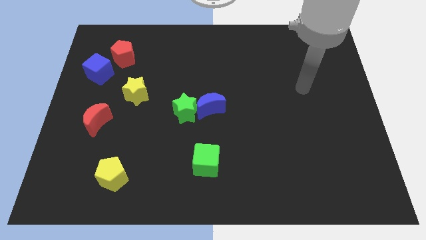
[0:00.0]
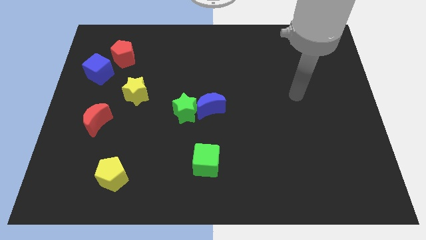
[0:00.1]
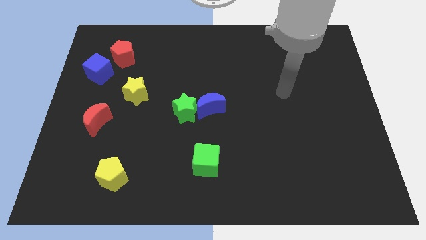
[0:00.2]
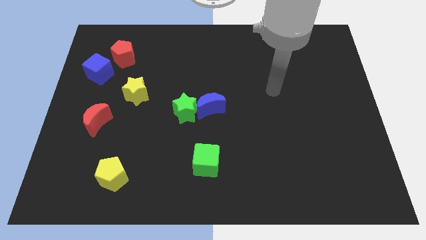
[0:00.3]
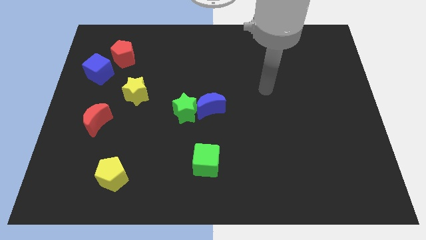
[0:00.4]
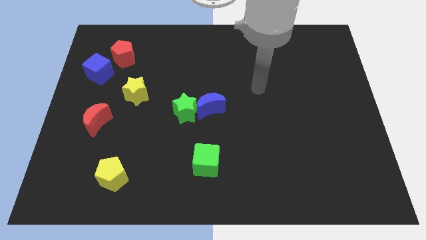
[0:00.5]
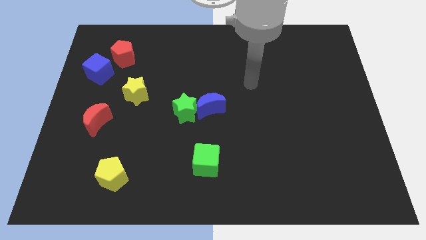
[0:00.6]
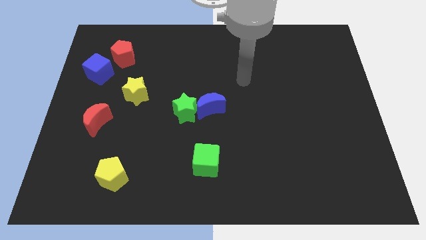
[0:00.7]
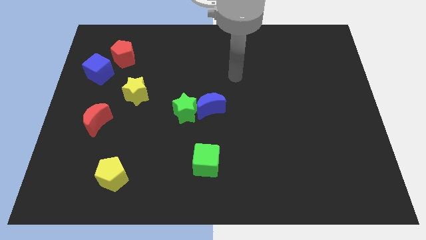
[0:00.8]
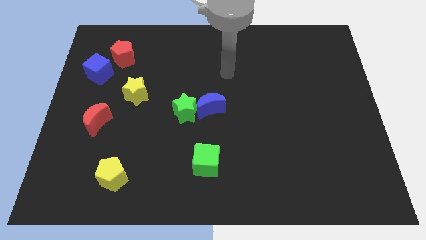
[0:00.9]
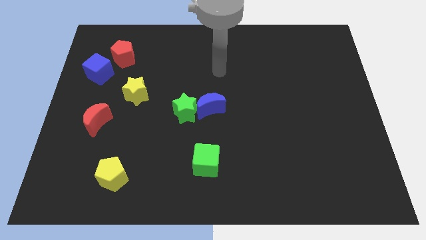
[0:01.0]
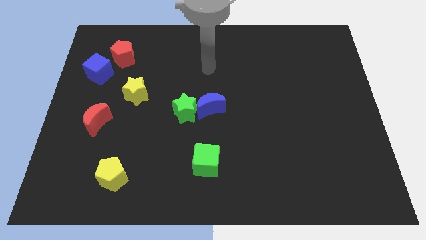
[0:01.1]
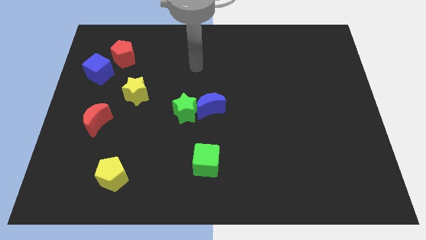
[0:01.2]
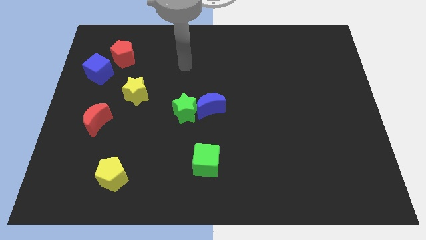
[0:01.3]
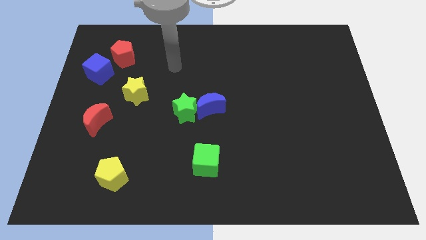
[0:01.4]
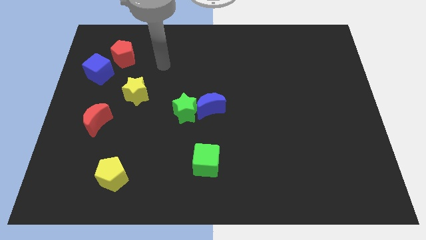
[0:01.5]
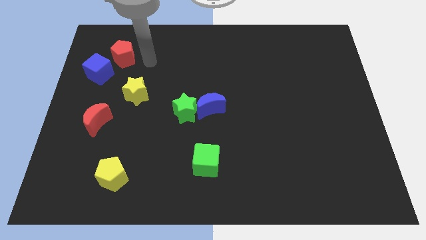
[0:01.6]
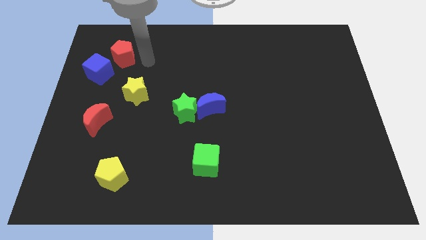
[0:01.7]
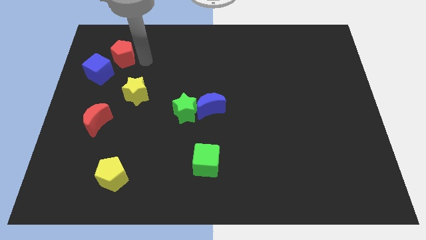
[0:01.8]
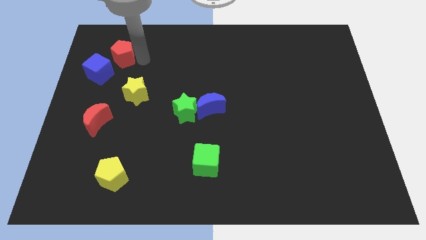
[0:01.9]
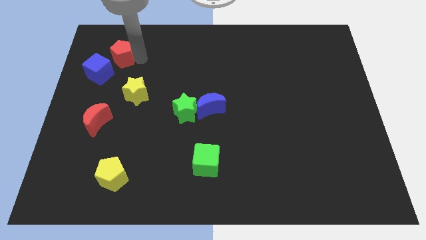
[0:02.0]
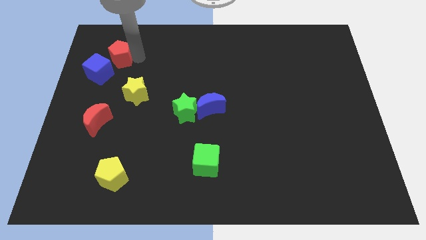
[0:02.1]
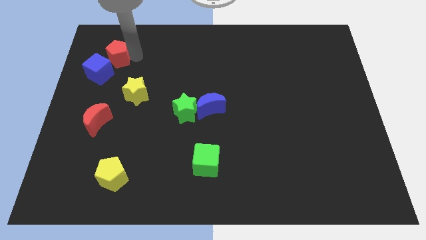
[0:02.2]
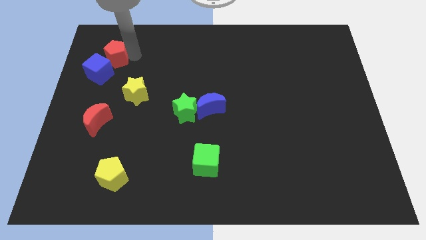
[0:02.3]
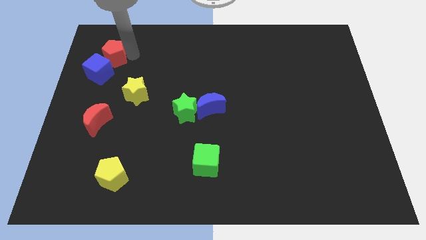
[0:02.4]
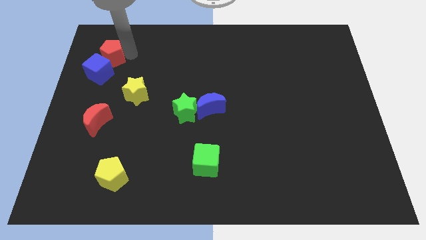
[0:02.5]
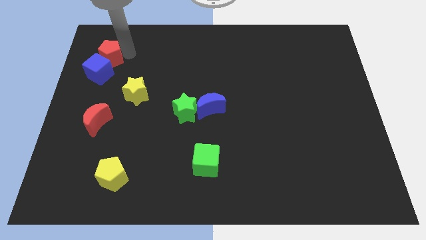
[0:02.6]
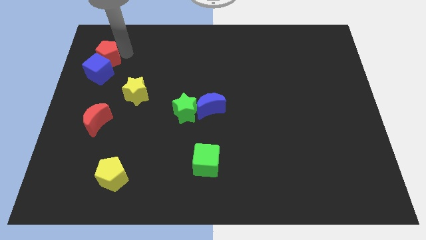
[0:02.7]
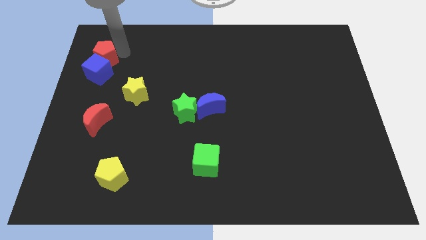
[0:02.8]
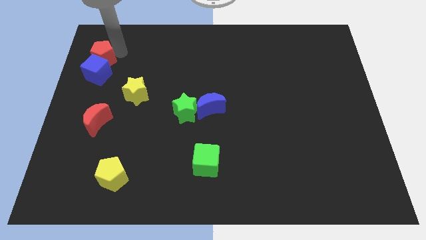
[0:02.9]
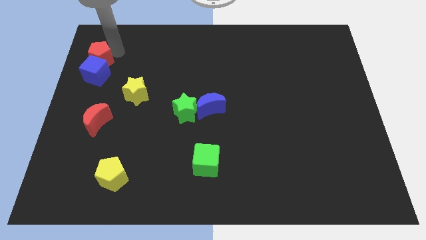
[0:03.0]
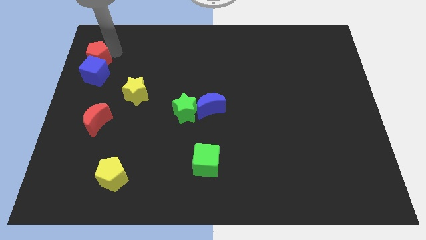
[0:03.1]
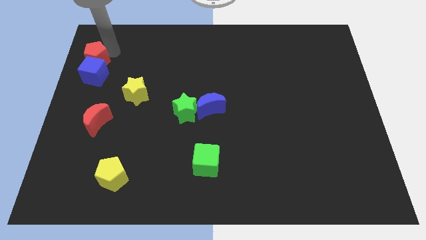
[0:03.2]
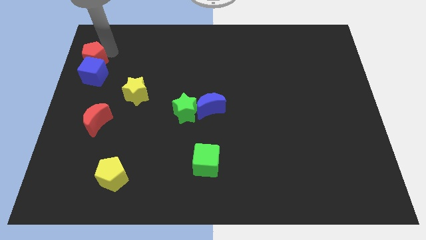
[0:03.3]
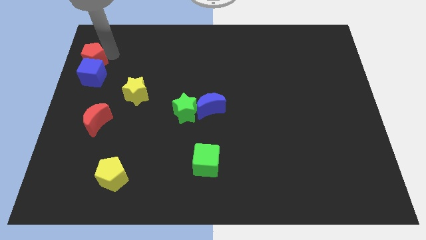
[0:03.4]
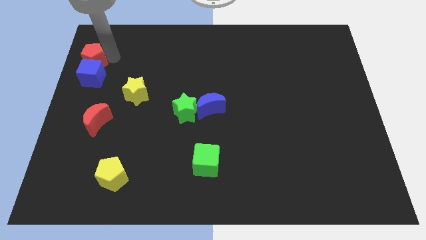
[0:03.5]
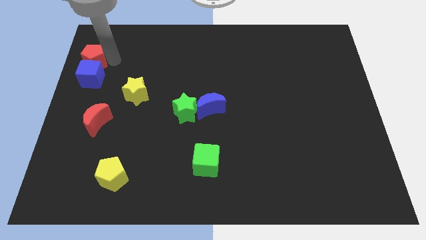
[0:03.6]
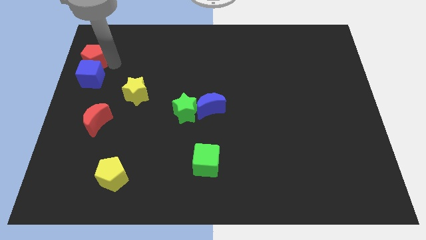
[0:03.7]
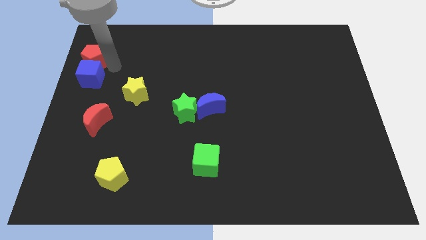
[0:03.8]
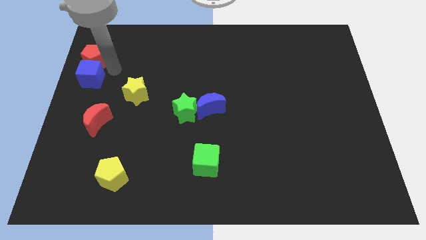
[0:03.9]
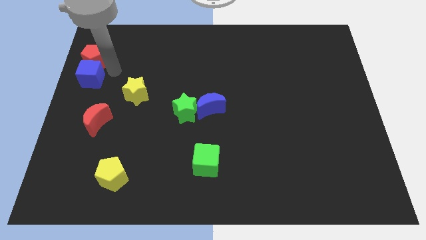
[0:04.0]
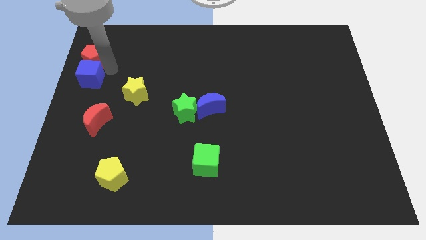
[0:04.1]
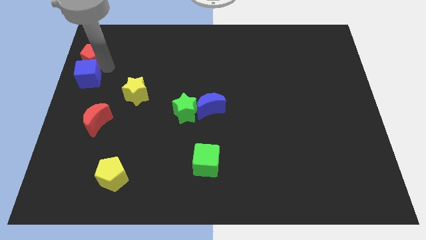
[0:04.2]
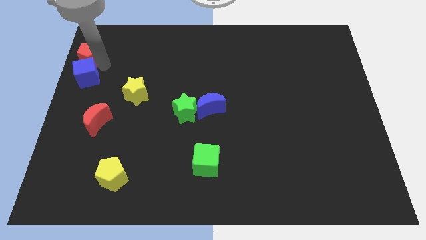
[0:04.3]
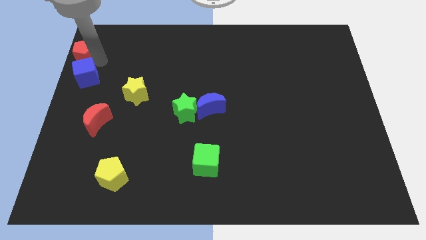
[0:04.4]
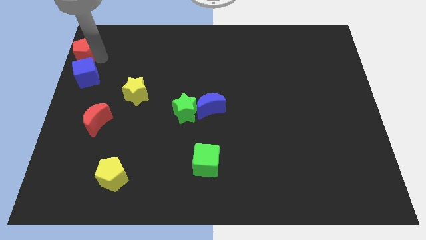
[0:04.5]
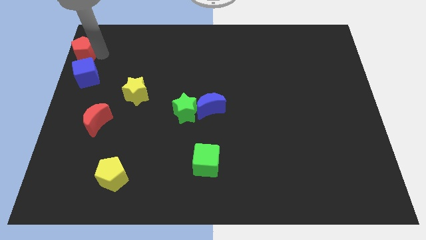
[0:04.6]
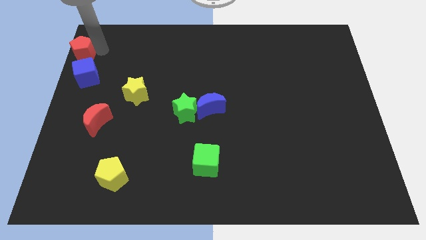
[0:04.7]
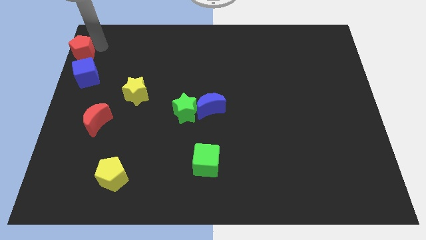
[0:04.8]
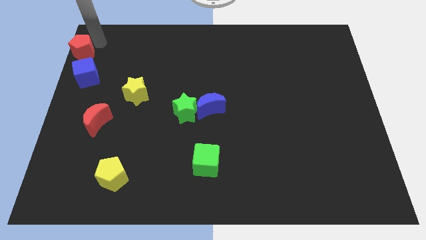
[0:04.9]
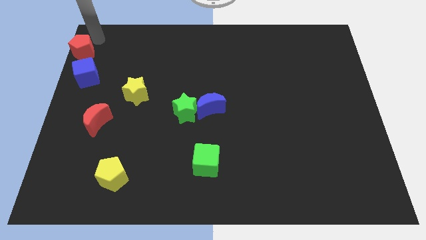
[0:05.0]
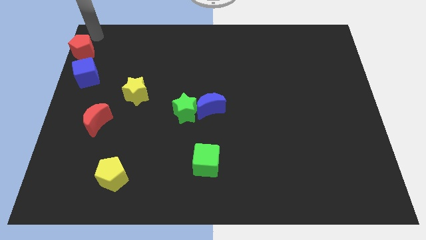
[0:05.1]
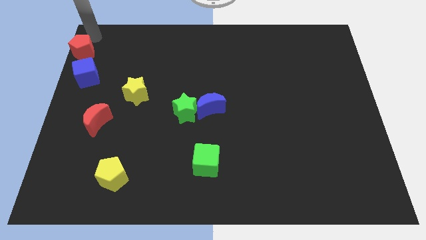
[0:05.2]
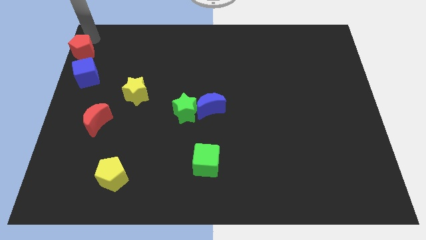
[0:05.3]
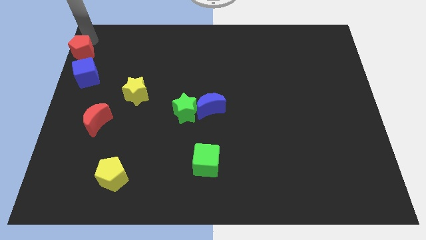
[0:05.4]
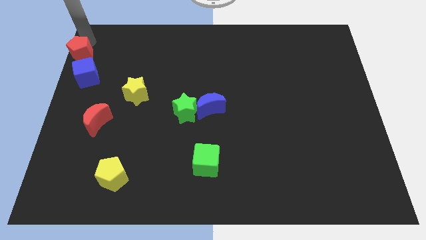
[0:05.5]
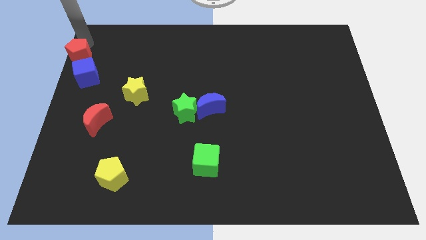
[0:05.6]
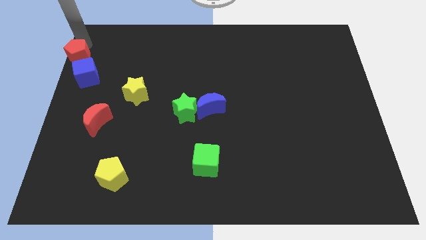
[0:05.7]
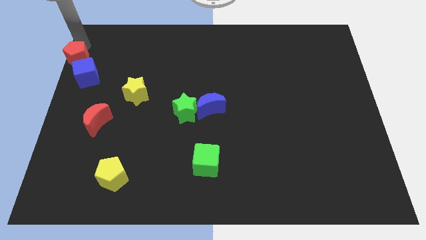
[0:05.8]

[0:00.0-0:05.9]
push the red pentagon to the left side of the board
